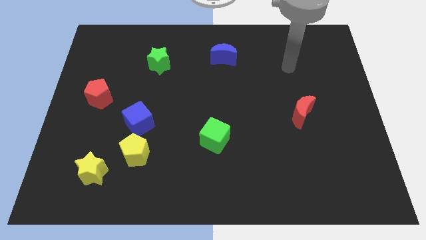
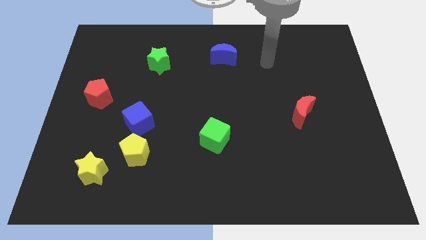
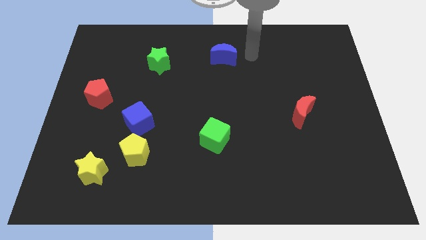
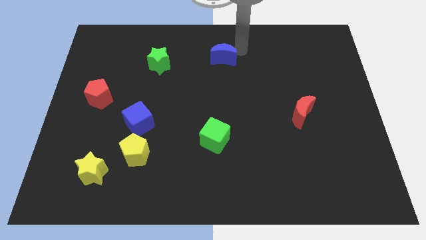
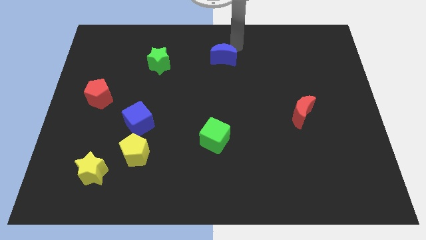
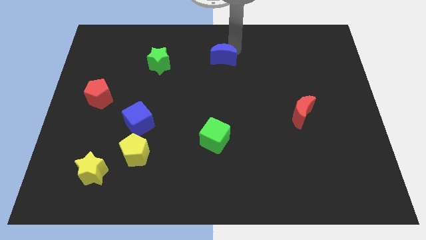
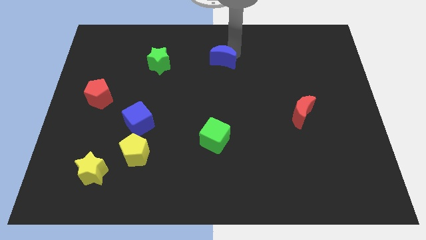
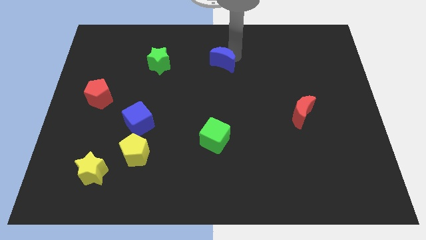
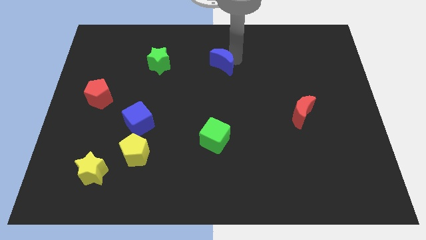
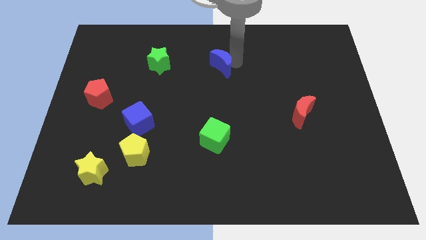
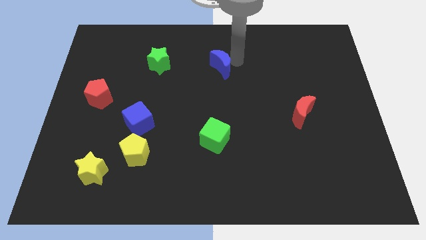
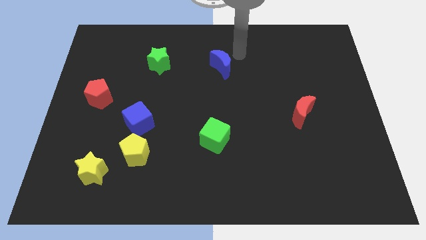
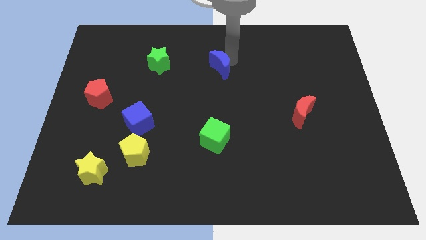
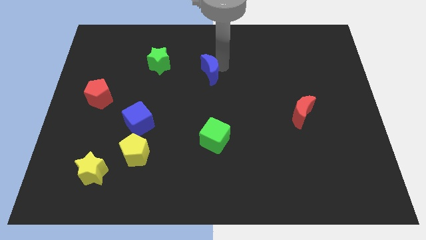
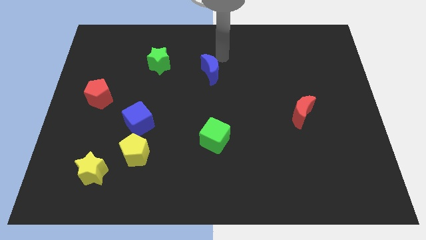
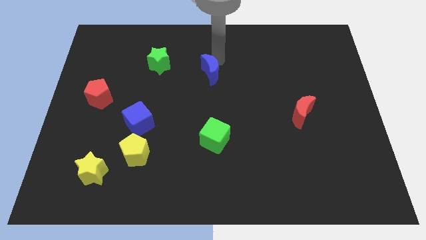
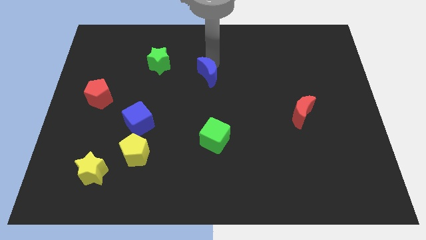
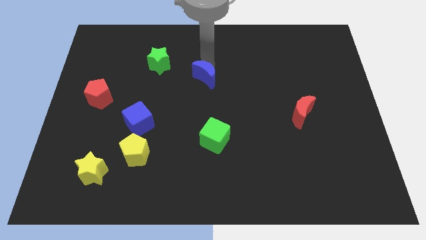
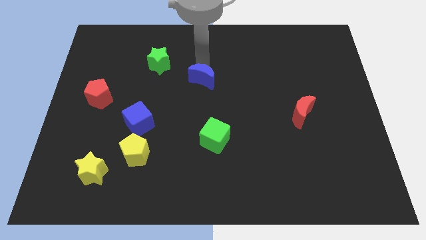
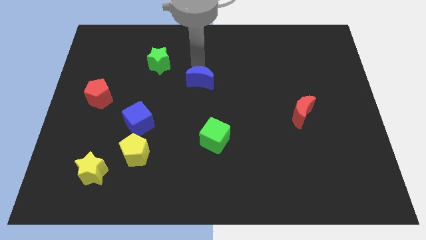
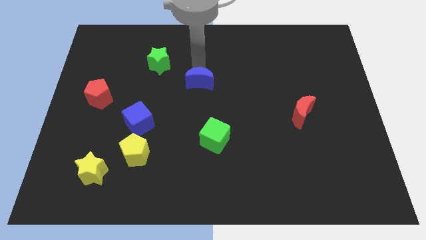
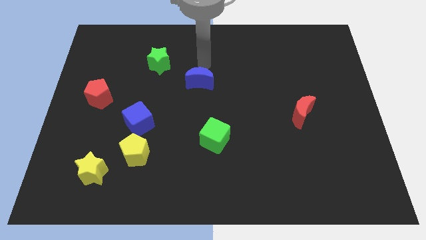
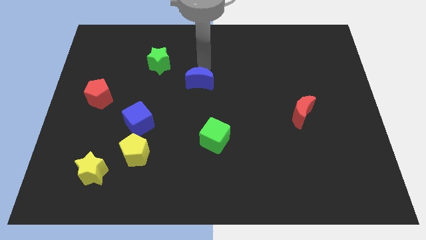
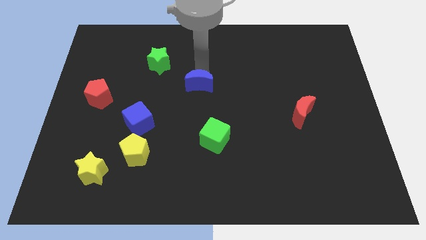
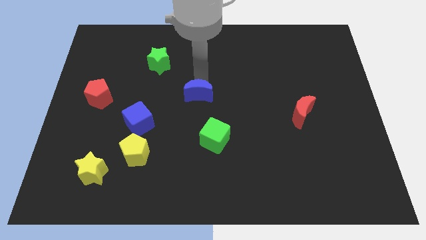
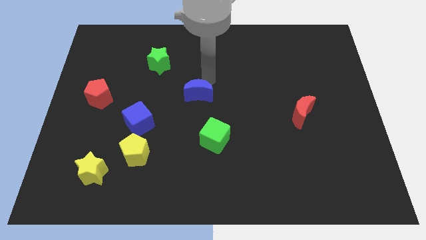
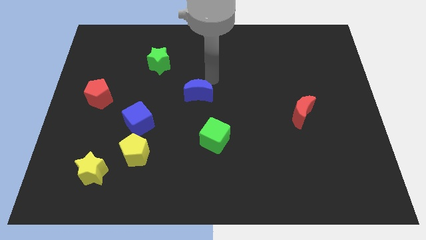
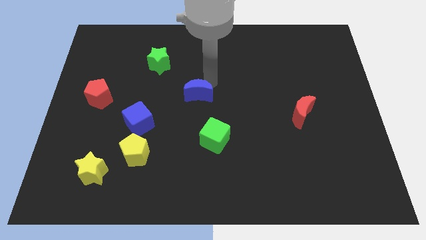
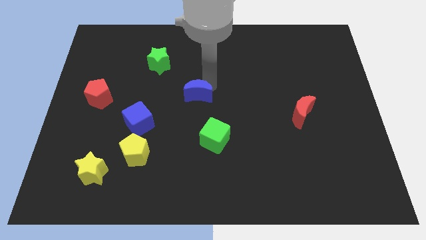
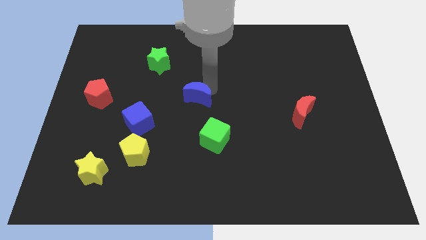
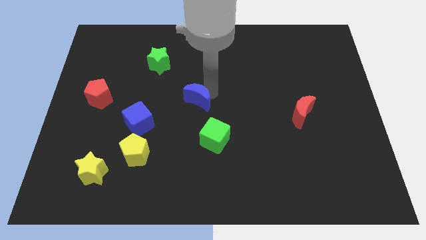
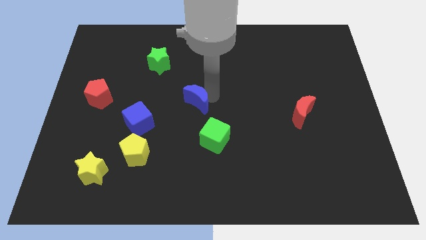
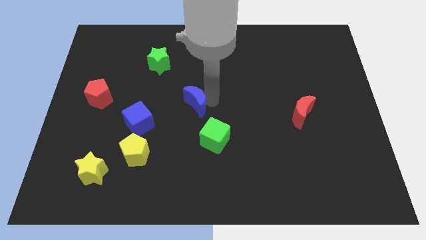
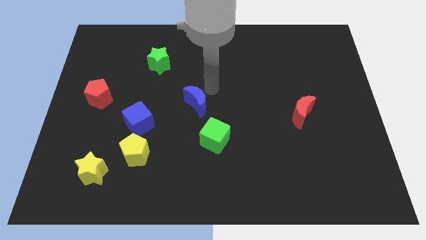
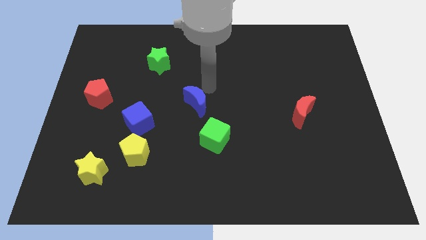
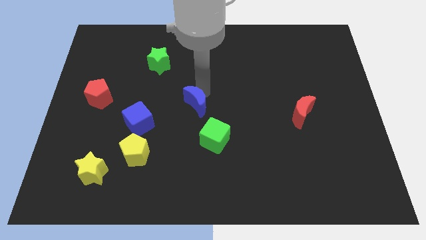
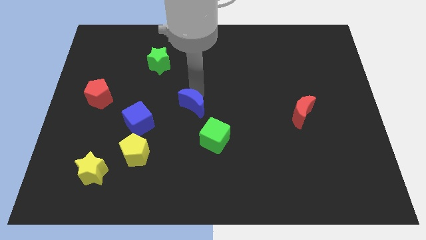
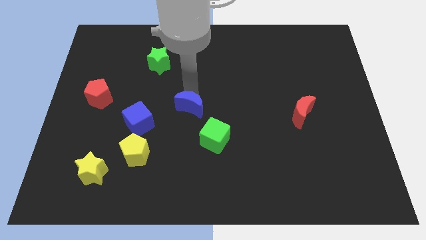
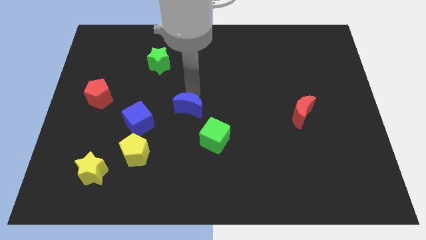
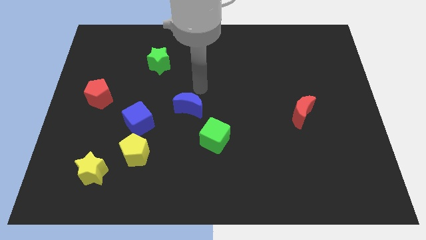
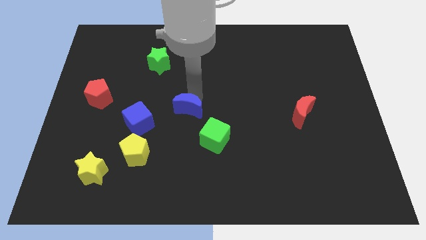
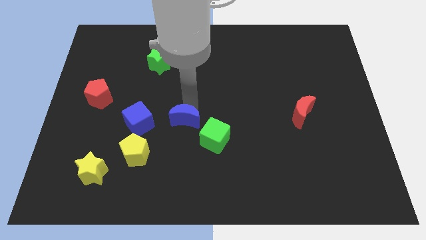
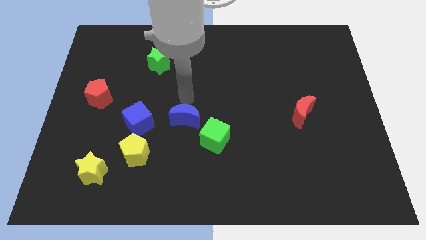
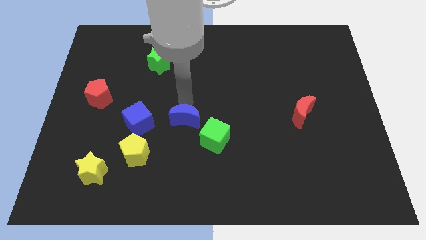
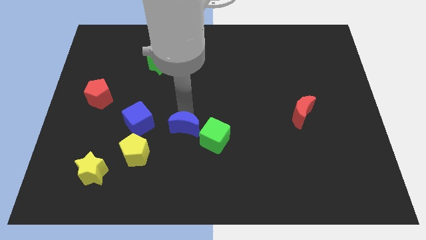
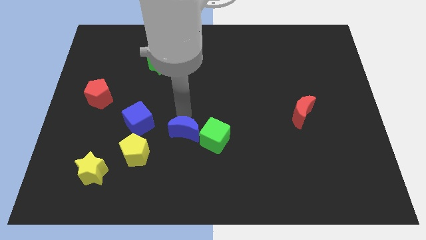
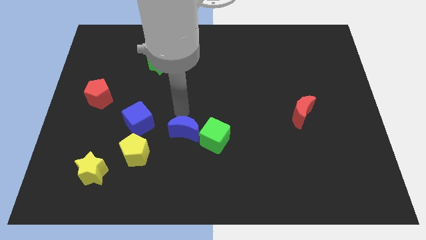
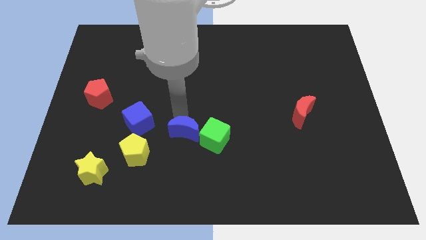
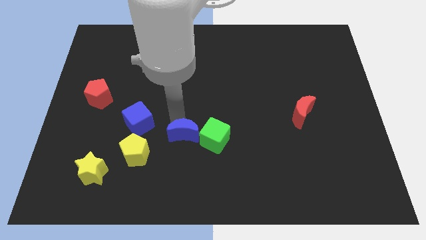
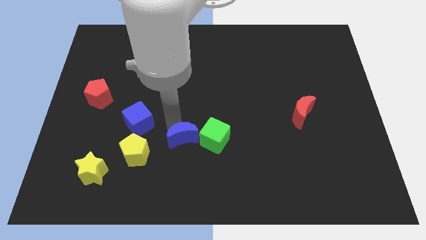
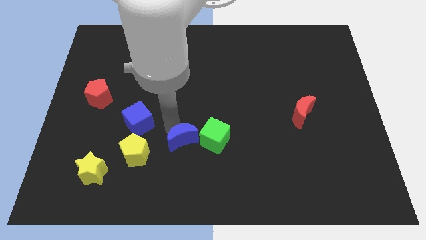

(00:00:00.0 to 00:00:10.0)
put the blue moon diagonally down and to the left of the green cube

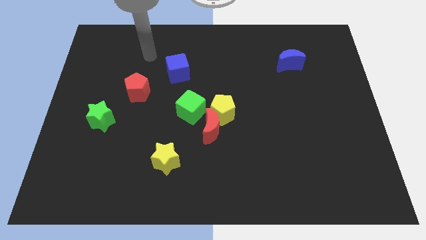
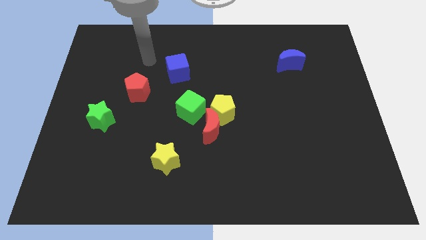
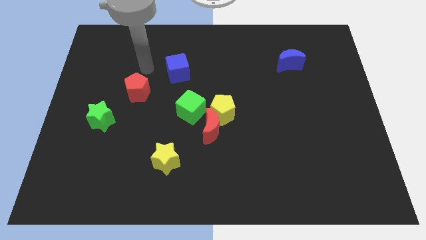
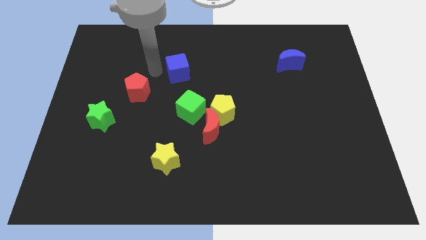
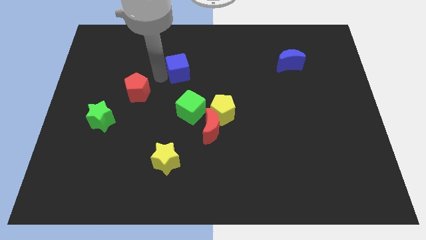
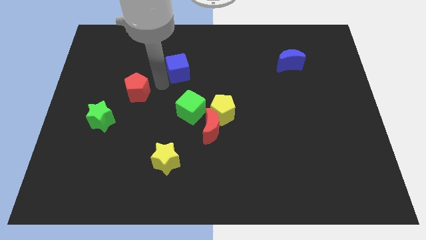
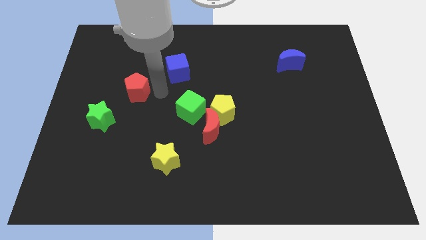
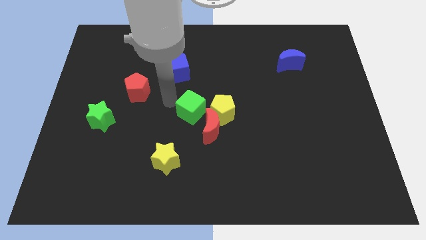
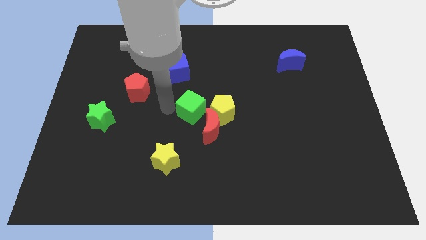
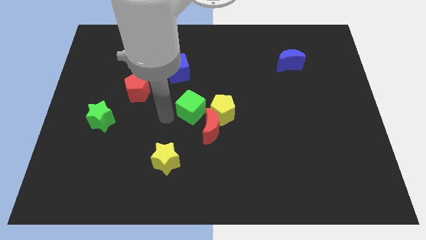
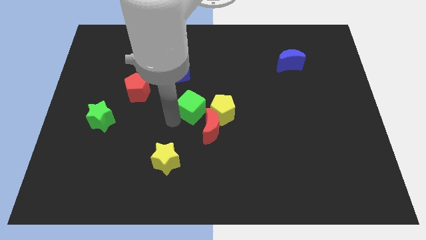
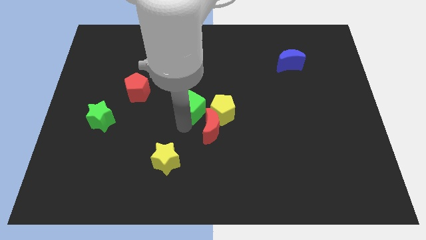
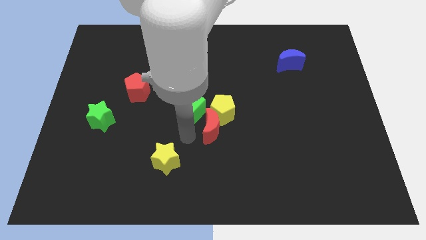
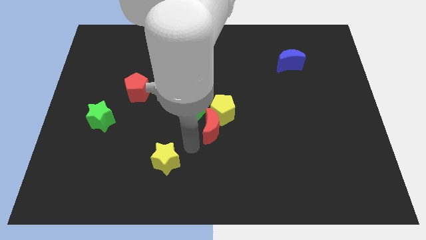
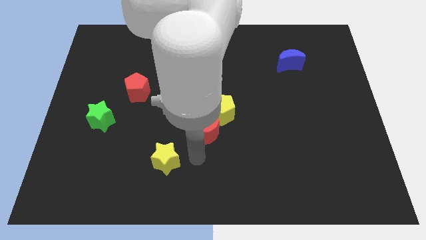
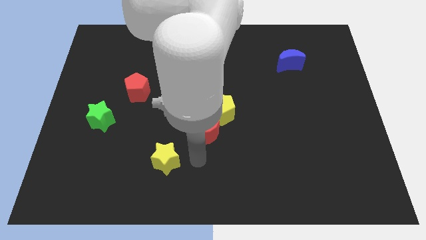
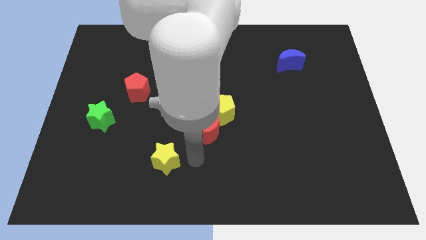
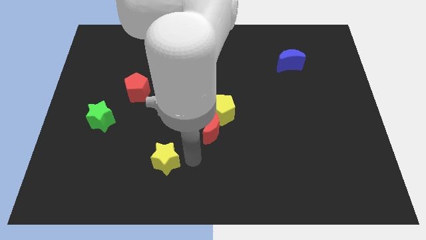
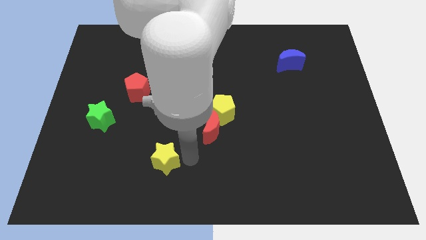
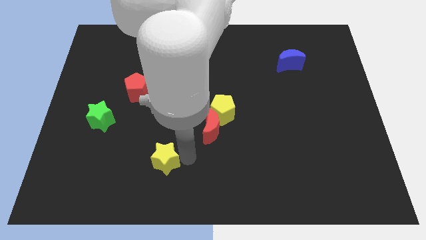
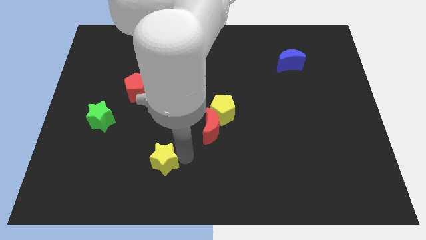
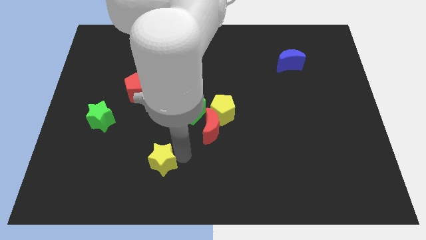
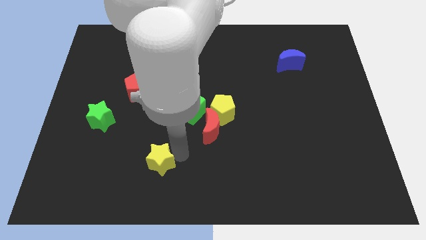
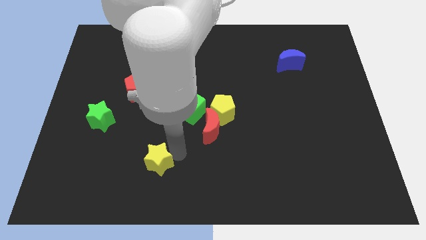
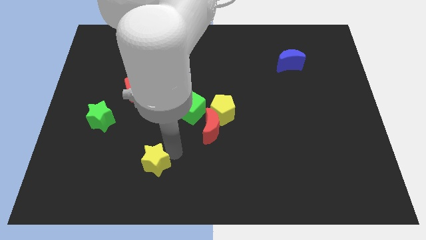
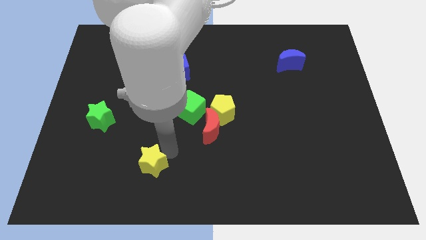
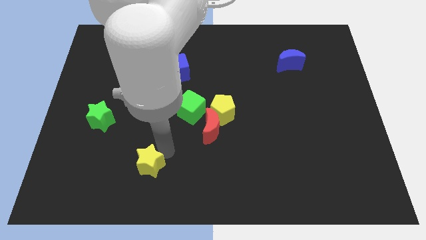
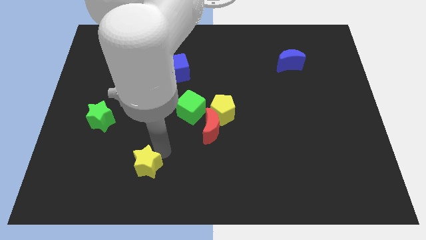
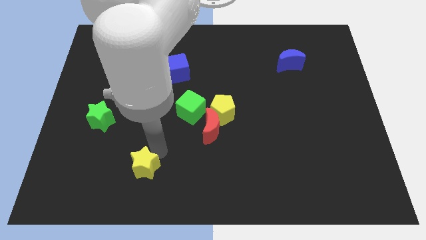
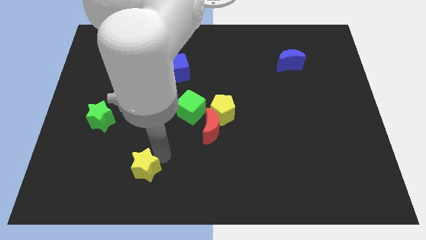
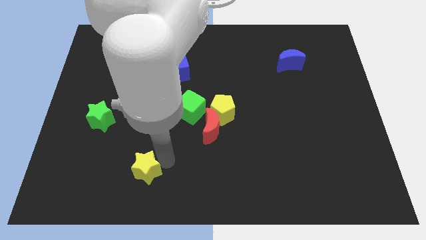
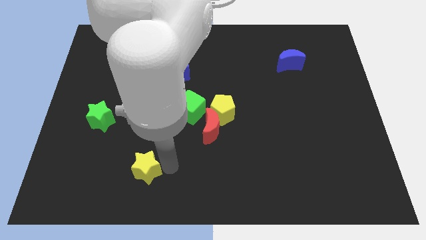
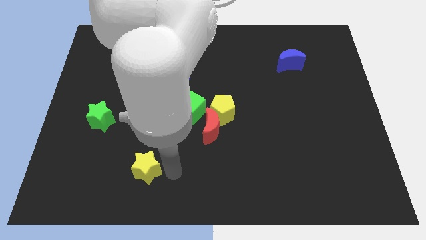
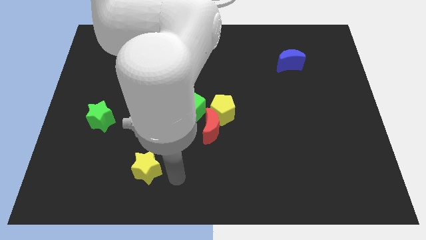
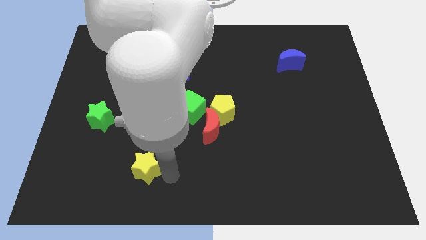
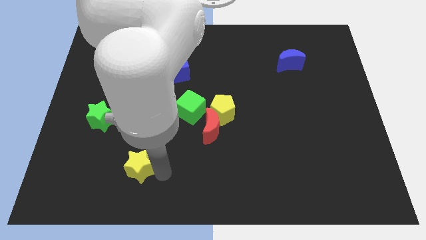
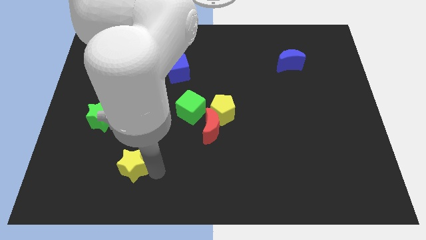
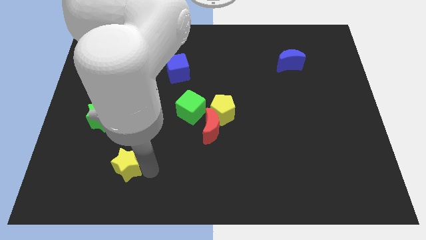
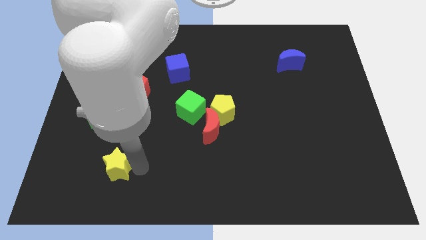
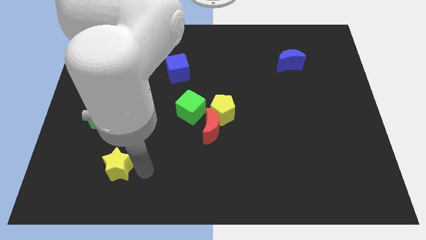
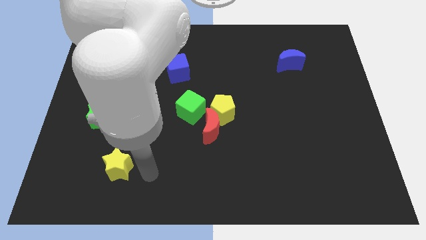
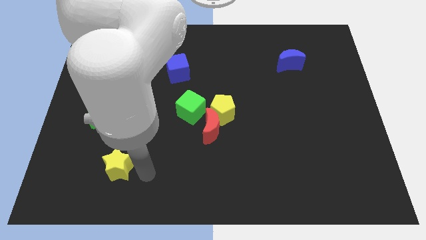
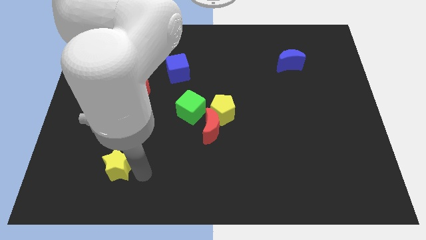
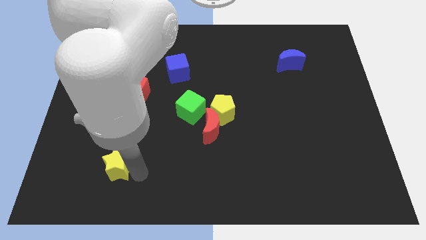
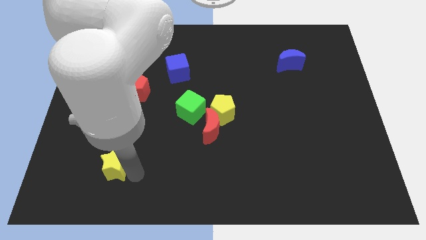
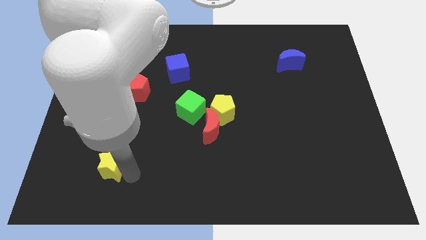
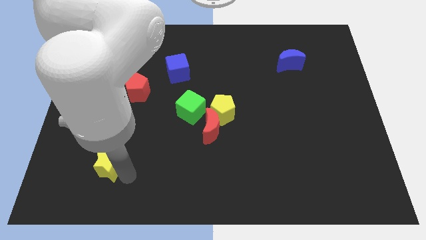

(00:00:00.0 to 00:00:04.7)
move the yellow star below the green star
